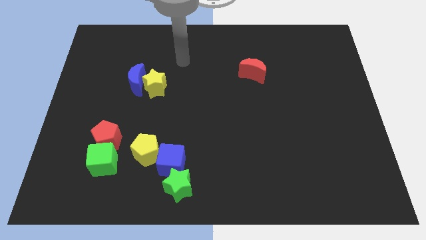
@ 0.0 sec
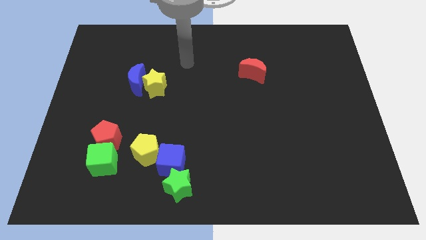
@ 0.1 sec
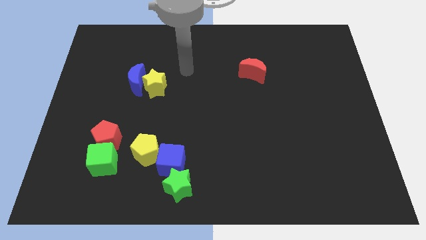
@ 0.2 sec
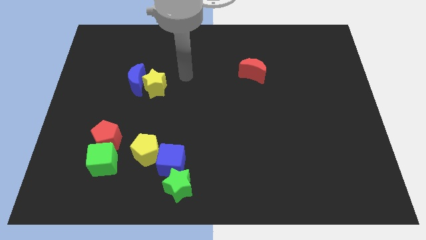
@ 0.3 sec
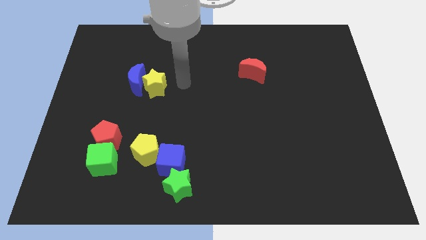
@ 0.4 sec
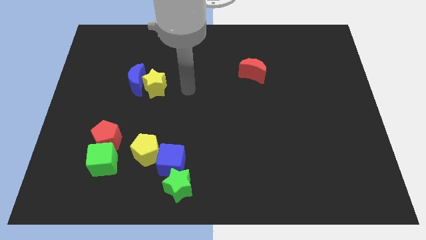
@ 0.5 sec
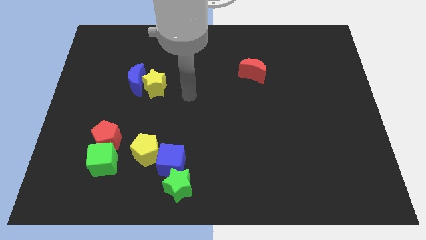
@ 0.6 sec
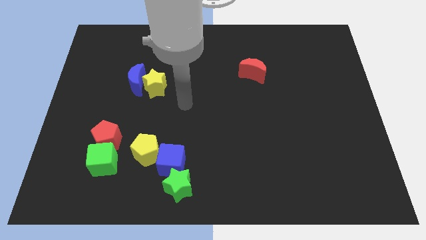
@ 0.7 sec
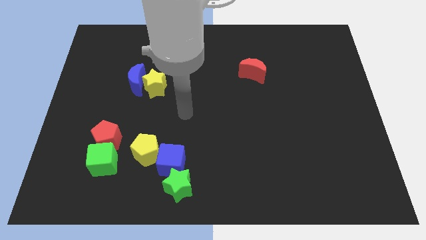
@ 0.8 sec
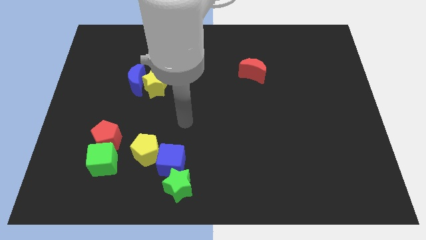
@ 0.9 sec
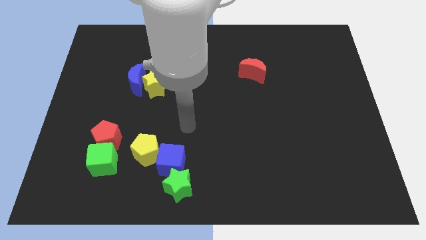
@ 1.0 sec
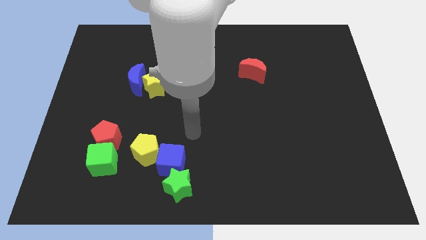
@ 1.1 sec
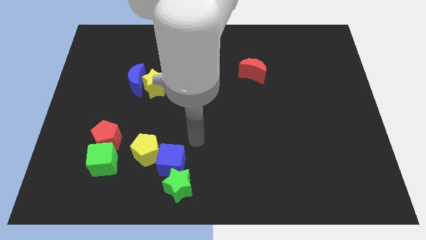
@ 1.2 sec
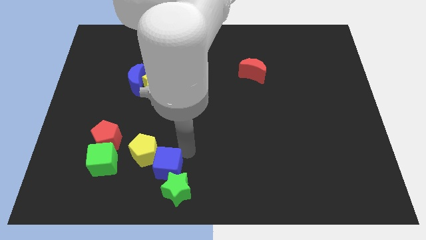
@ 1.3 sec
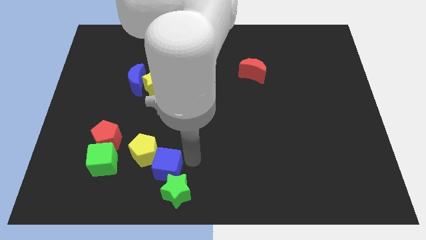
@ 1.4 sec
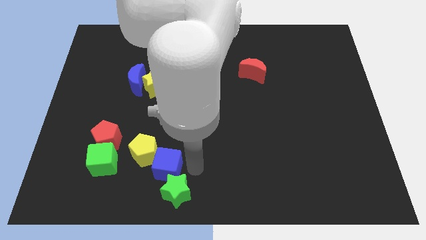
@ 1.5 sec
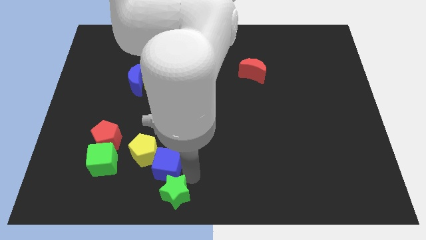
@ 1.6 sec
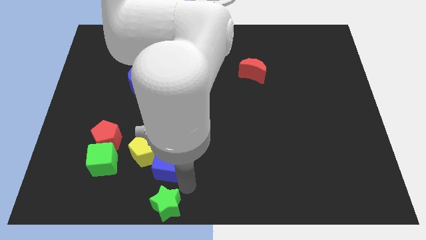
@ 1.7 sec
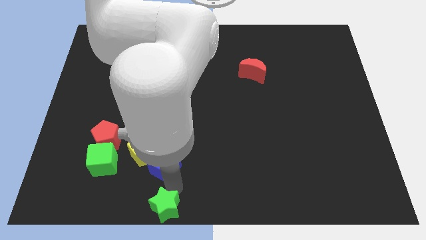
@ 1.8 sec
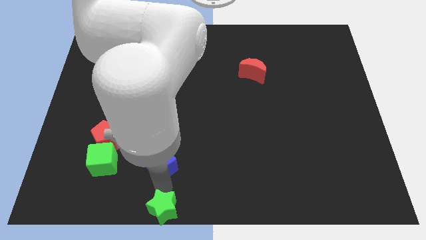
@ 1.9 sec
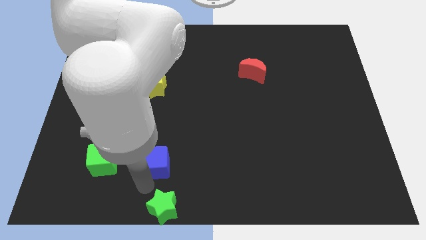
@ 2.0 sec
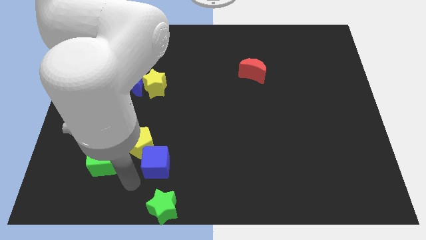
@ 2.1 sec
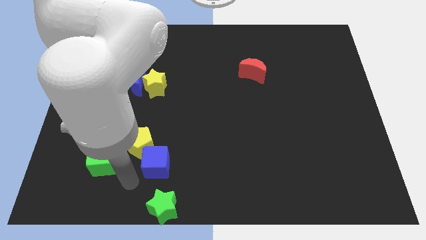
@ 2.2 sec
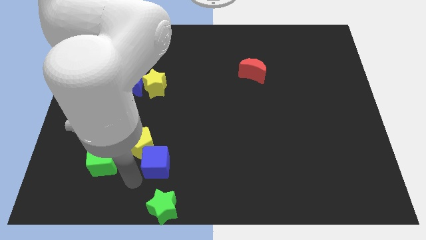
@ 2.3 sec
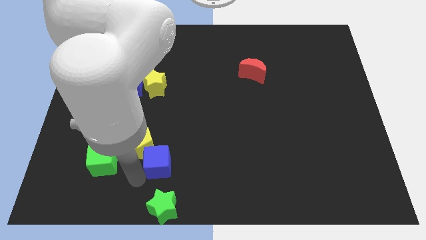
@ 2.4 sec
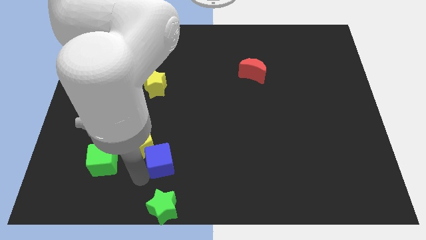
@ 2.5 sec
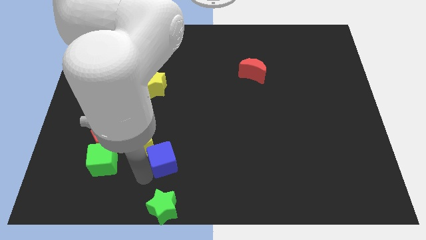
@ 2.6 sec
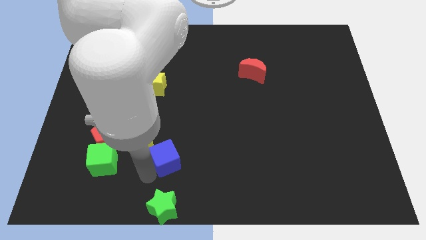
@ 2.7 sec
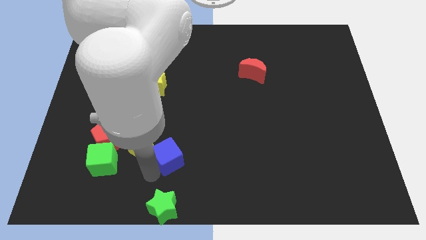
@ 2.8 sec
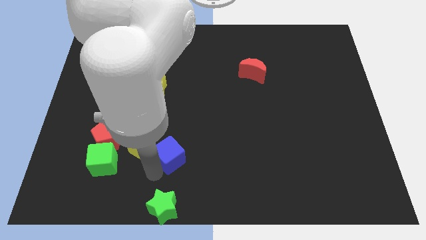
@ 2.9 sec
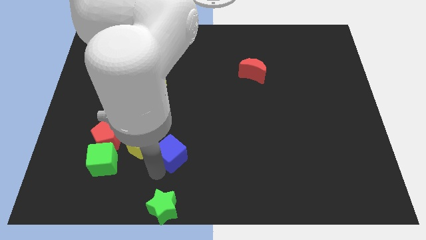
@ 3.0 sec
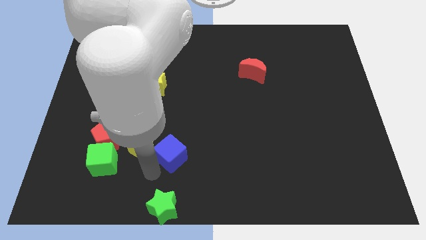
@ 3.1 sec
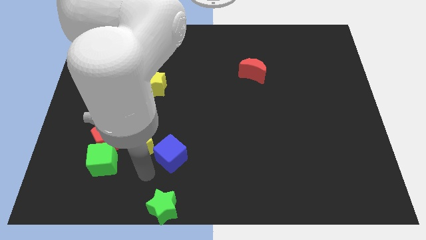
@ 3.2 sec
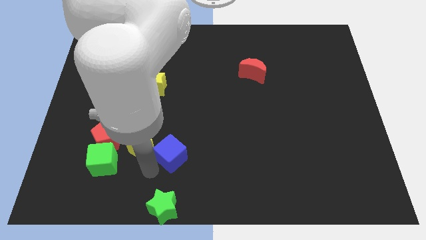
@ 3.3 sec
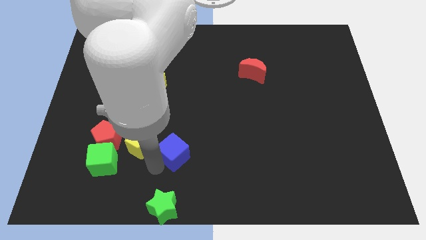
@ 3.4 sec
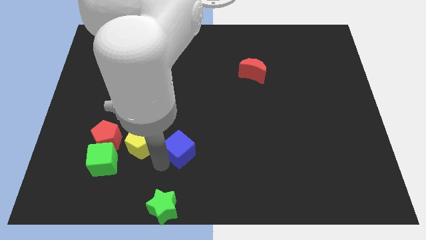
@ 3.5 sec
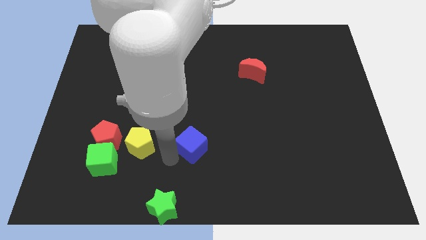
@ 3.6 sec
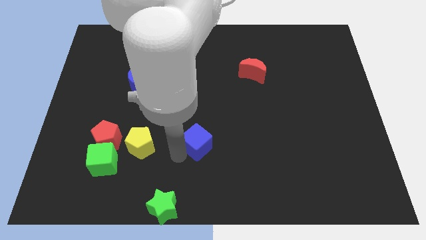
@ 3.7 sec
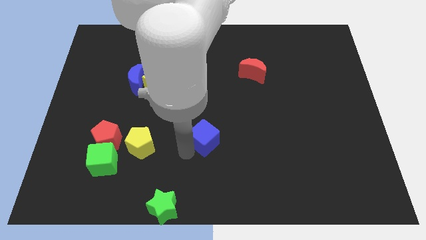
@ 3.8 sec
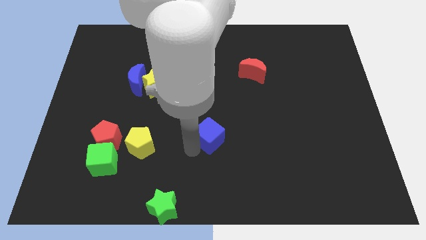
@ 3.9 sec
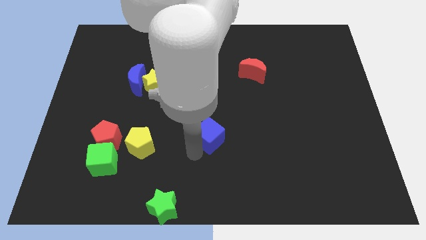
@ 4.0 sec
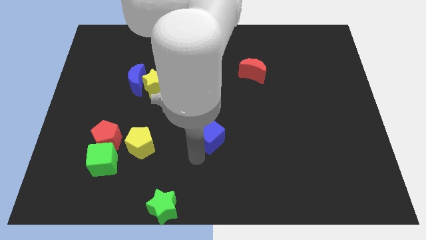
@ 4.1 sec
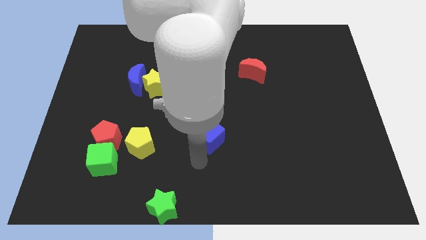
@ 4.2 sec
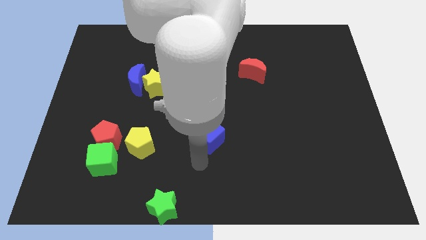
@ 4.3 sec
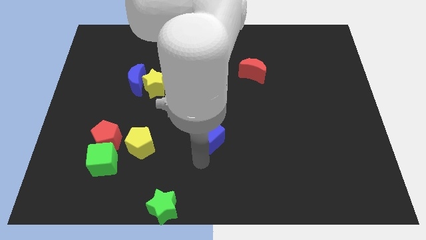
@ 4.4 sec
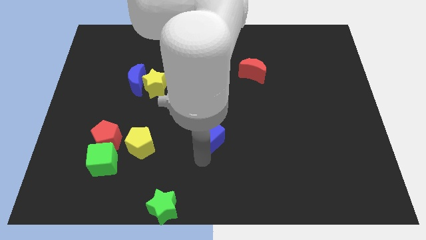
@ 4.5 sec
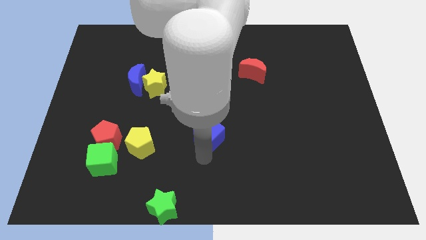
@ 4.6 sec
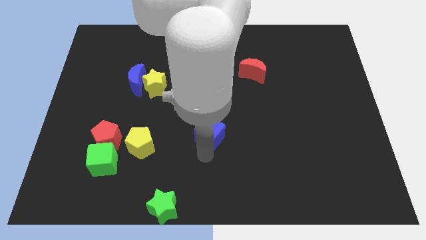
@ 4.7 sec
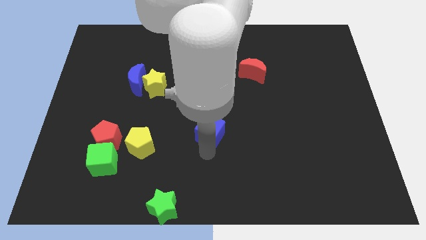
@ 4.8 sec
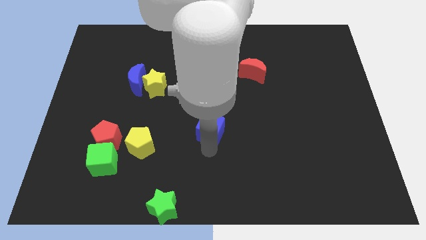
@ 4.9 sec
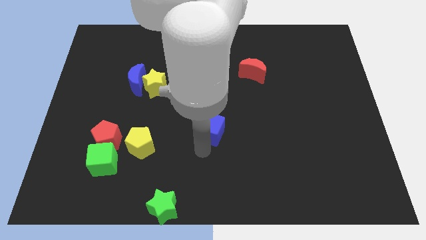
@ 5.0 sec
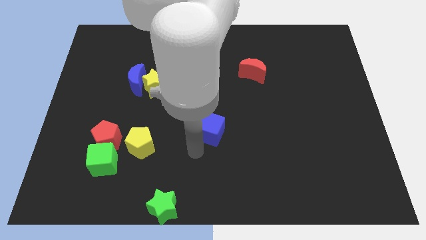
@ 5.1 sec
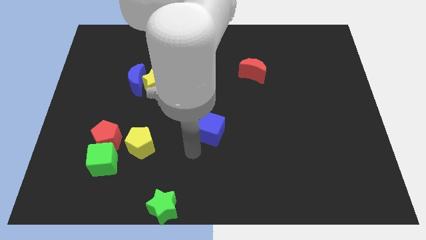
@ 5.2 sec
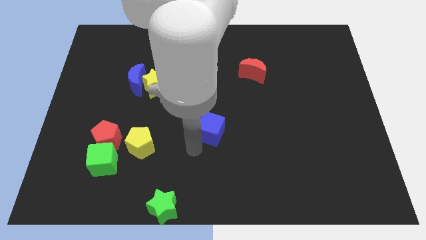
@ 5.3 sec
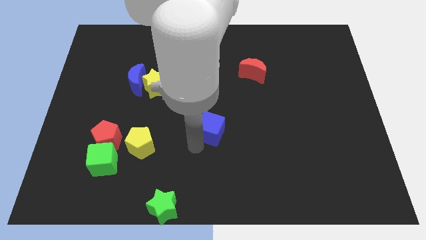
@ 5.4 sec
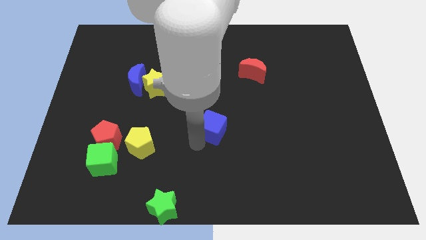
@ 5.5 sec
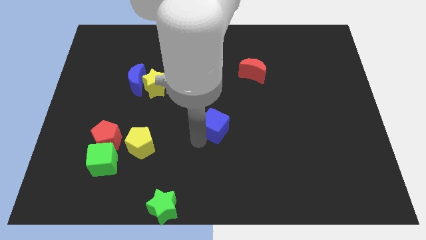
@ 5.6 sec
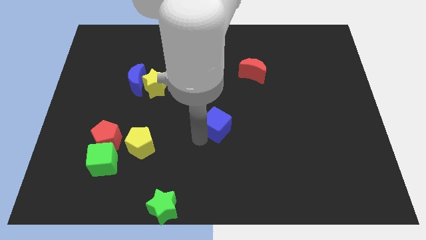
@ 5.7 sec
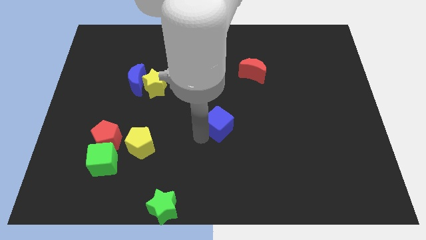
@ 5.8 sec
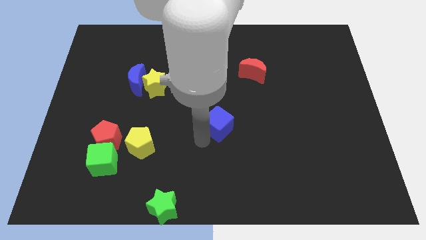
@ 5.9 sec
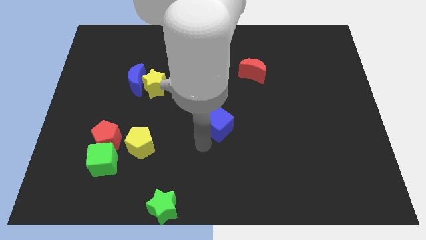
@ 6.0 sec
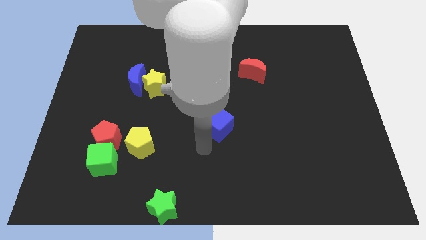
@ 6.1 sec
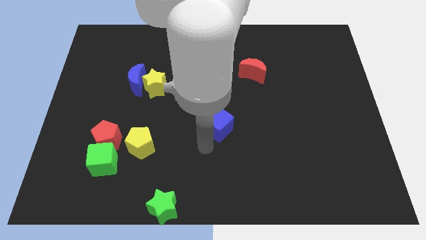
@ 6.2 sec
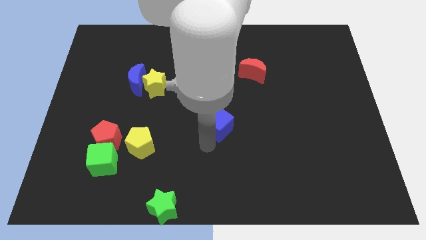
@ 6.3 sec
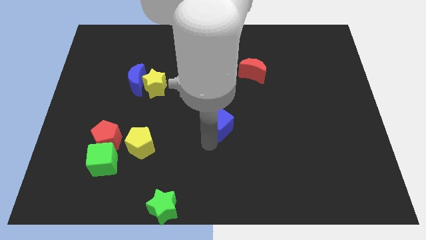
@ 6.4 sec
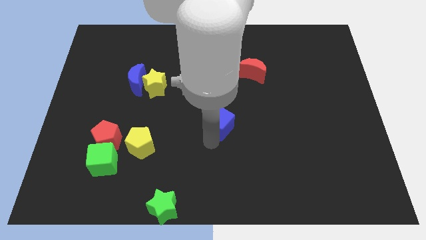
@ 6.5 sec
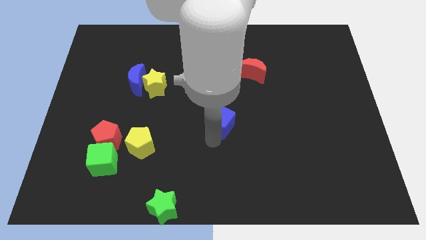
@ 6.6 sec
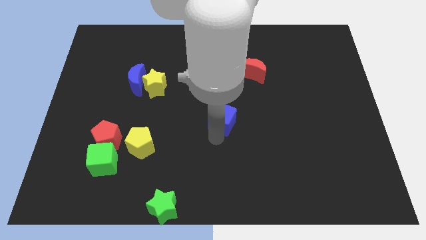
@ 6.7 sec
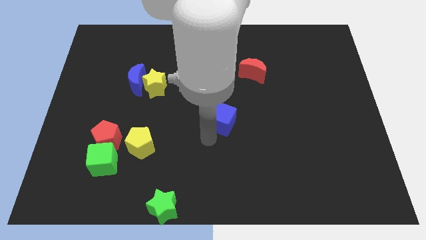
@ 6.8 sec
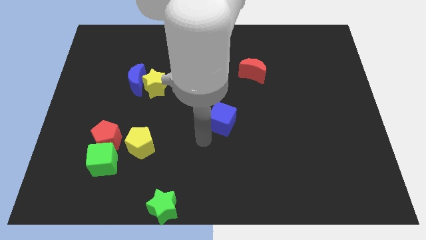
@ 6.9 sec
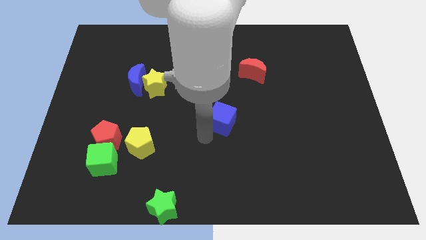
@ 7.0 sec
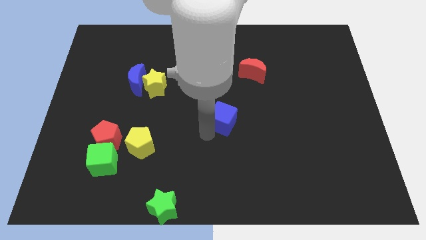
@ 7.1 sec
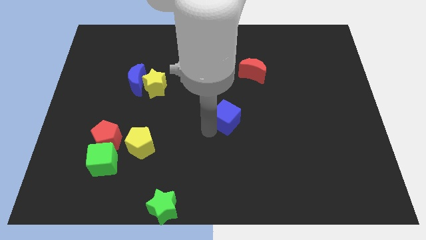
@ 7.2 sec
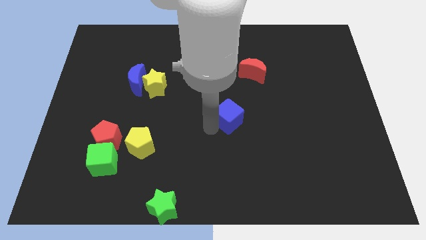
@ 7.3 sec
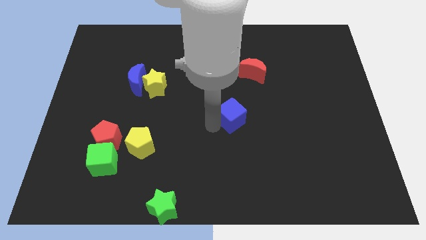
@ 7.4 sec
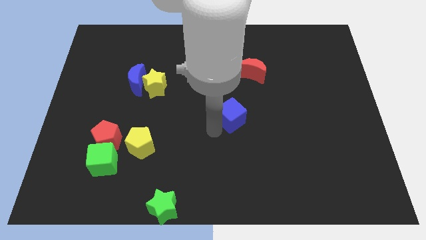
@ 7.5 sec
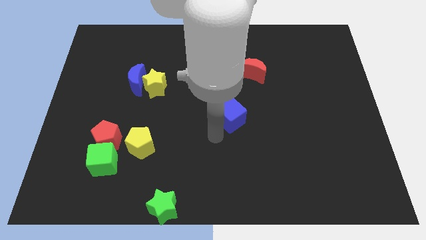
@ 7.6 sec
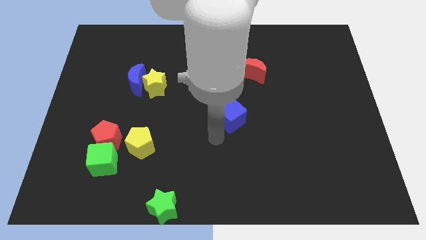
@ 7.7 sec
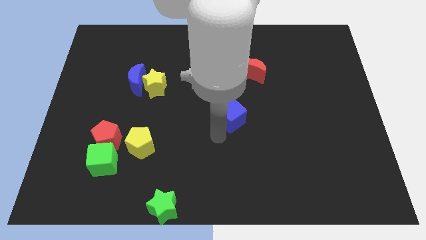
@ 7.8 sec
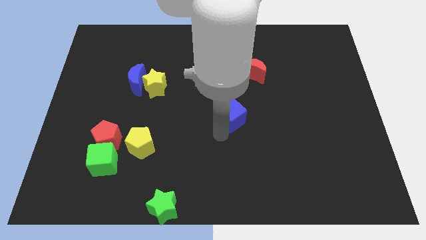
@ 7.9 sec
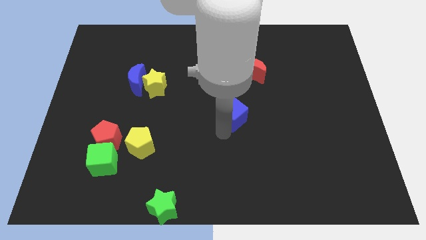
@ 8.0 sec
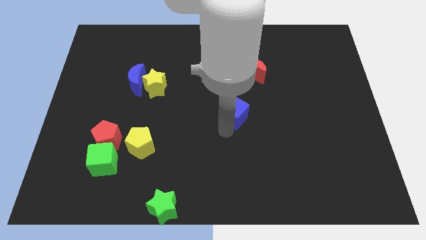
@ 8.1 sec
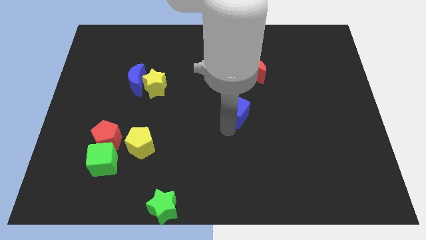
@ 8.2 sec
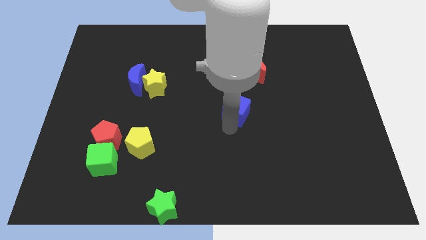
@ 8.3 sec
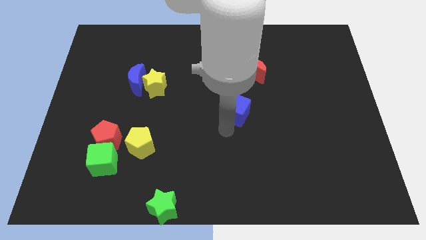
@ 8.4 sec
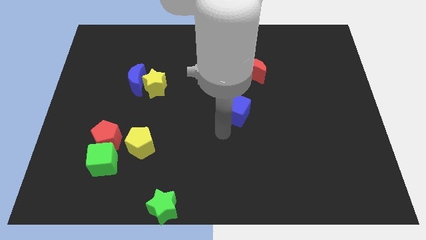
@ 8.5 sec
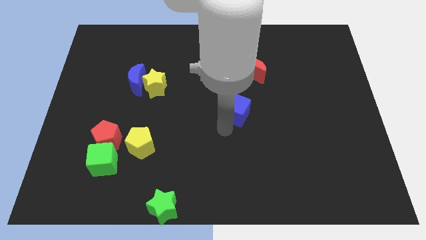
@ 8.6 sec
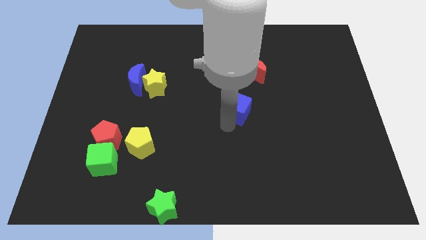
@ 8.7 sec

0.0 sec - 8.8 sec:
slide the blue cube up and then to the right
